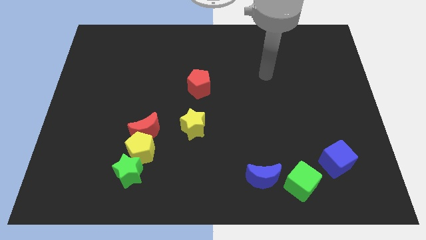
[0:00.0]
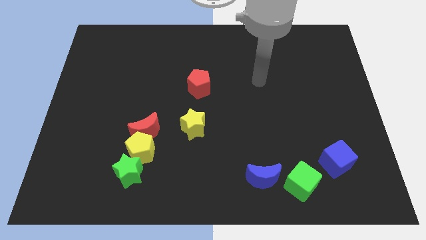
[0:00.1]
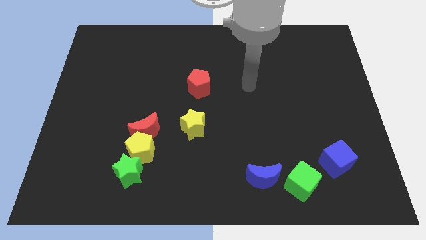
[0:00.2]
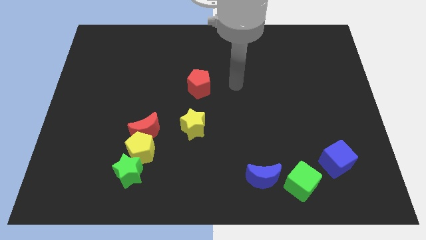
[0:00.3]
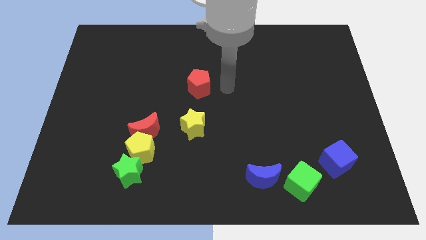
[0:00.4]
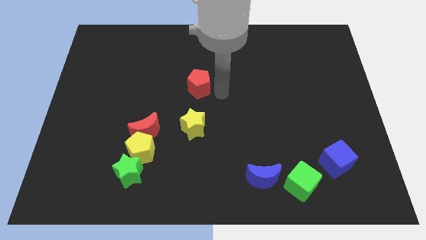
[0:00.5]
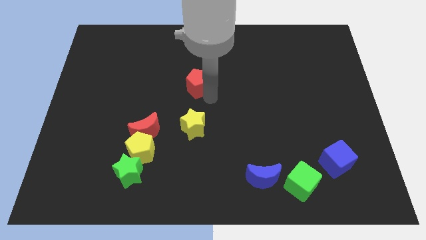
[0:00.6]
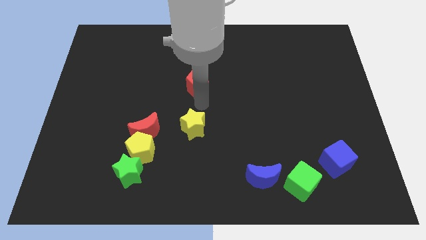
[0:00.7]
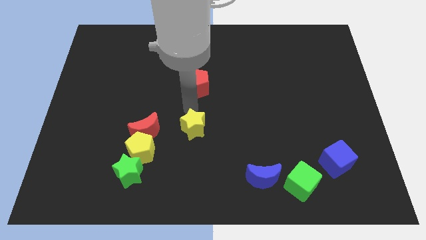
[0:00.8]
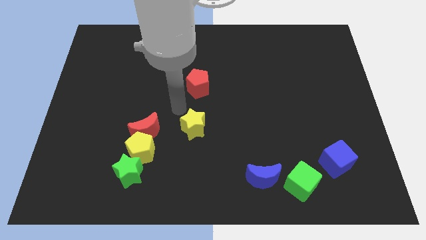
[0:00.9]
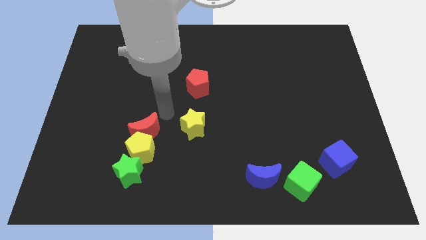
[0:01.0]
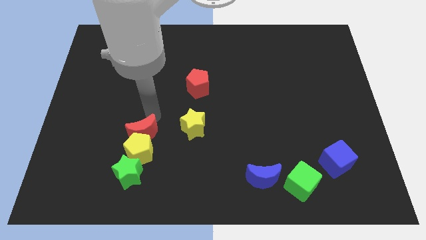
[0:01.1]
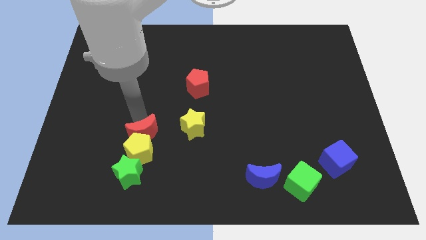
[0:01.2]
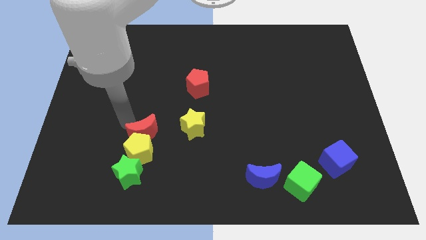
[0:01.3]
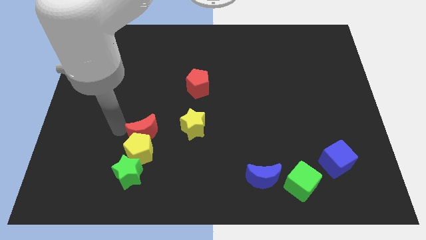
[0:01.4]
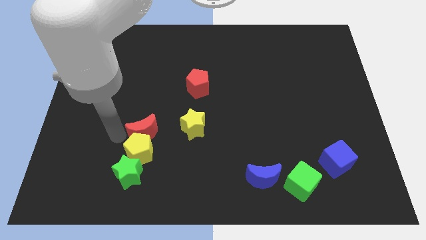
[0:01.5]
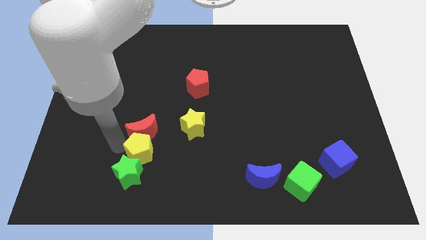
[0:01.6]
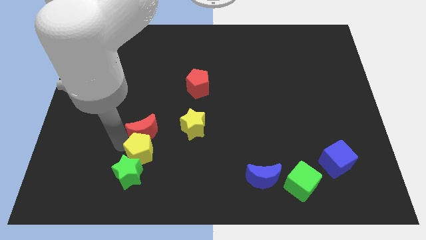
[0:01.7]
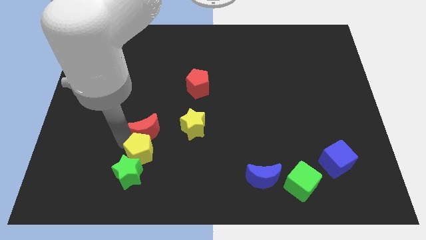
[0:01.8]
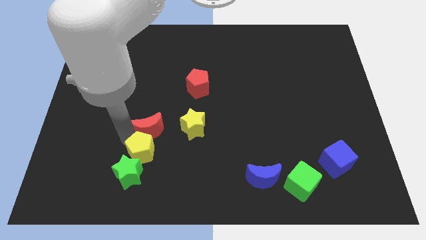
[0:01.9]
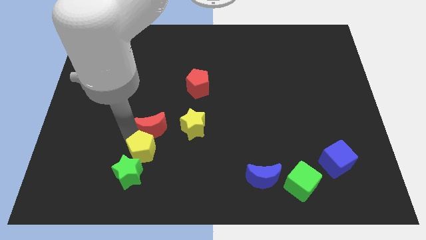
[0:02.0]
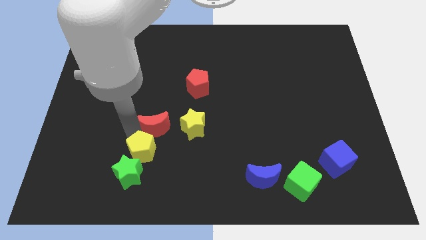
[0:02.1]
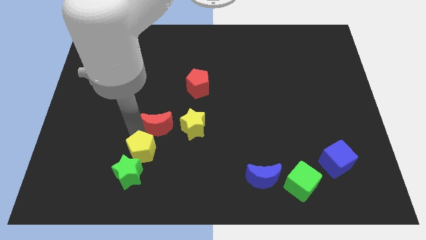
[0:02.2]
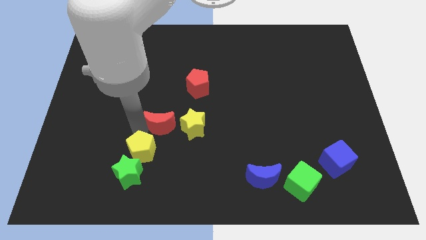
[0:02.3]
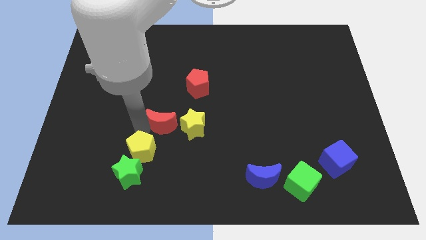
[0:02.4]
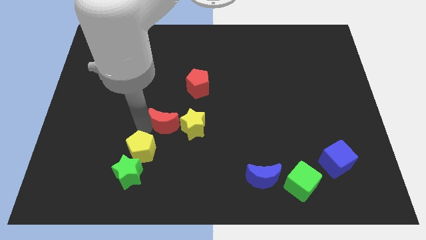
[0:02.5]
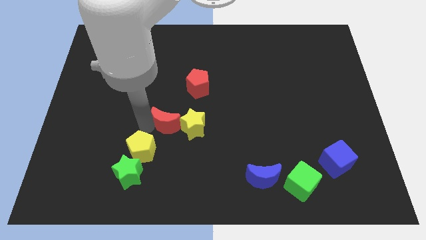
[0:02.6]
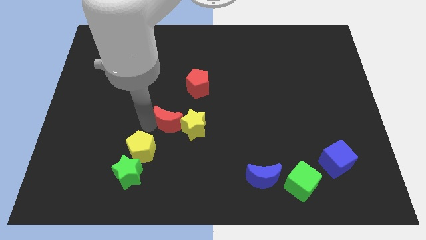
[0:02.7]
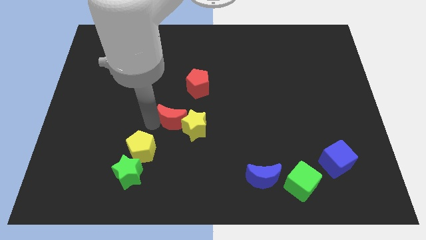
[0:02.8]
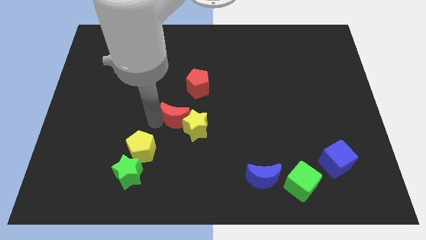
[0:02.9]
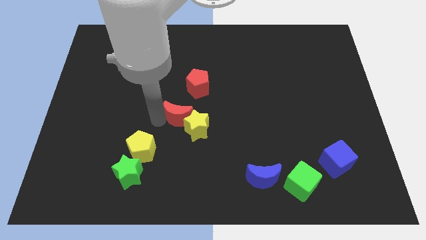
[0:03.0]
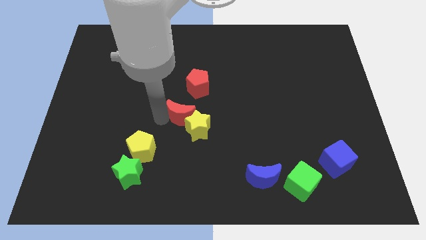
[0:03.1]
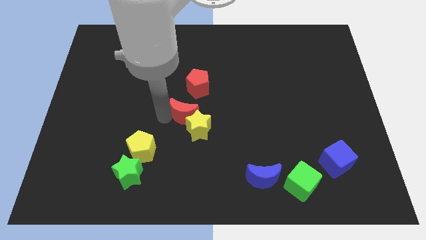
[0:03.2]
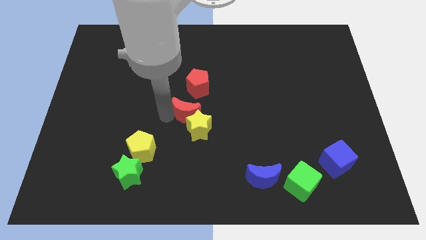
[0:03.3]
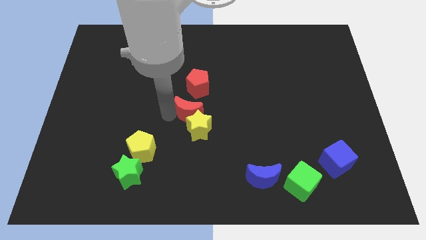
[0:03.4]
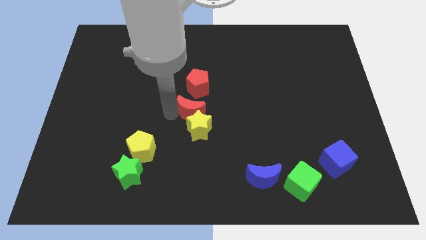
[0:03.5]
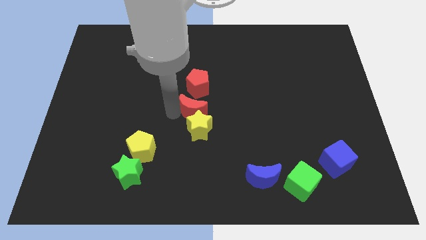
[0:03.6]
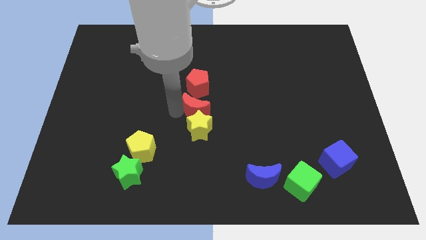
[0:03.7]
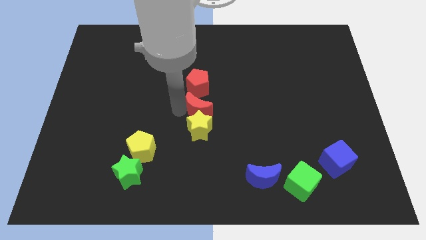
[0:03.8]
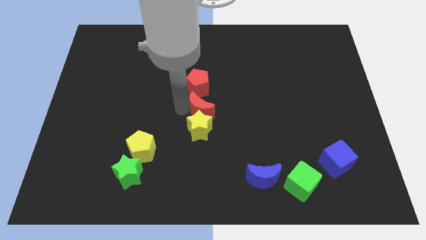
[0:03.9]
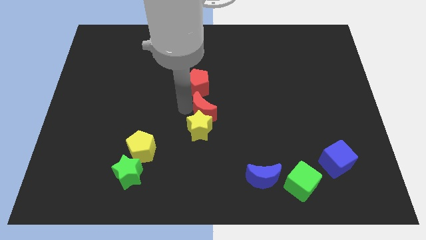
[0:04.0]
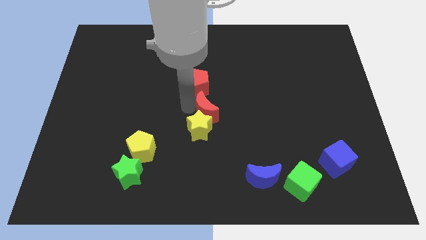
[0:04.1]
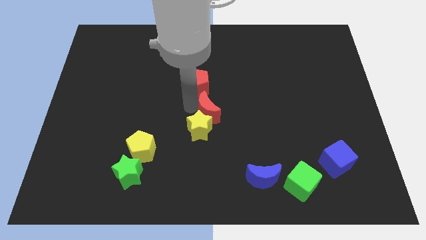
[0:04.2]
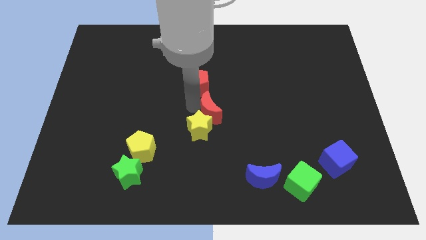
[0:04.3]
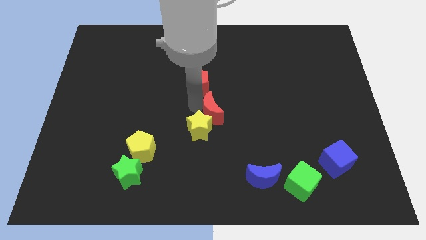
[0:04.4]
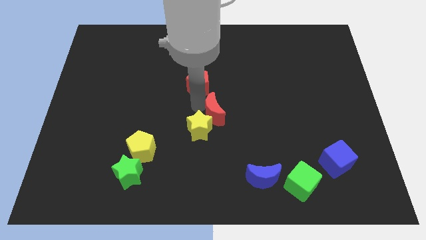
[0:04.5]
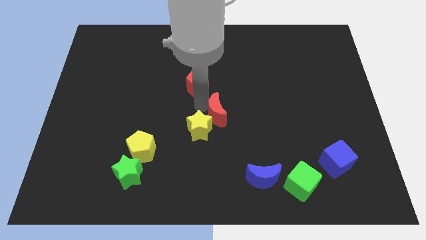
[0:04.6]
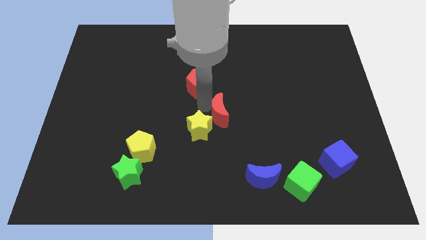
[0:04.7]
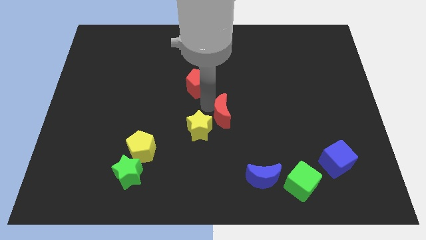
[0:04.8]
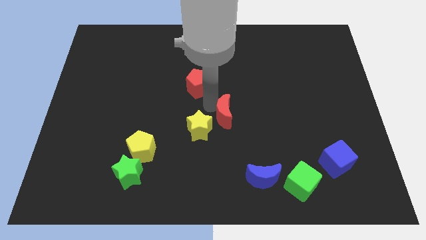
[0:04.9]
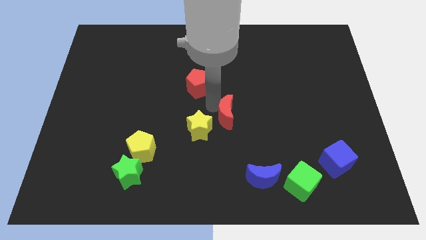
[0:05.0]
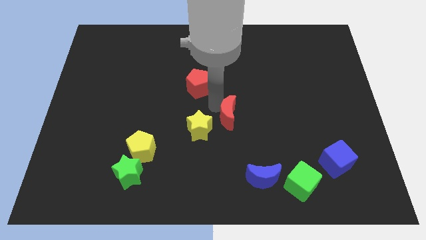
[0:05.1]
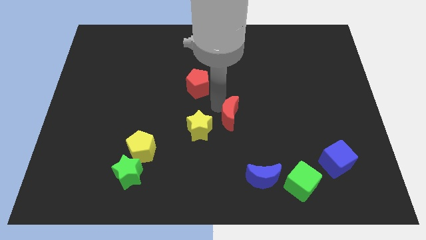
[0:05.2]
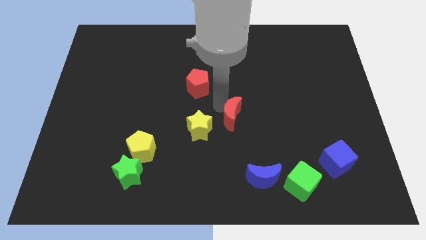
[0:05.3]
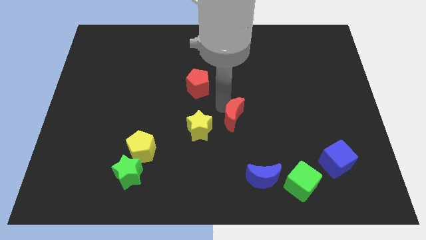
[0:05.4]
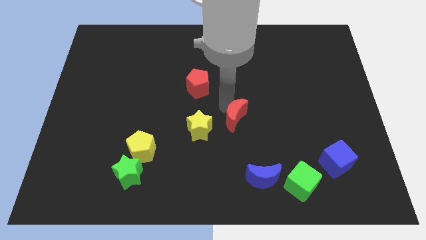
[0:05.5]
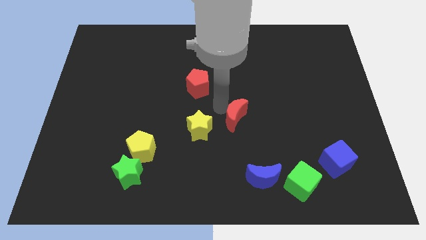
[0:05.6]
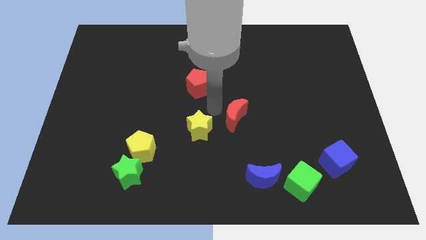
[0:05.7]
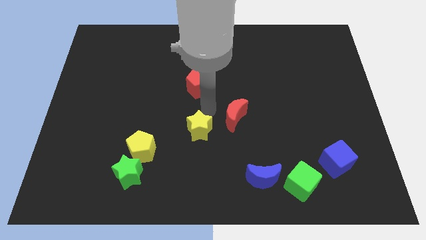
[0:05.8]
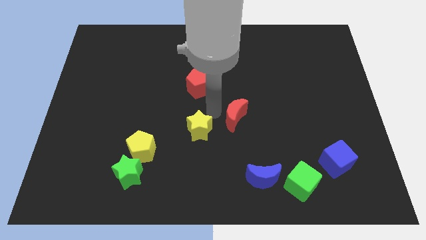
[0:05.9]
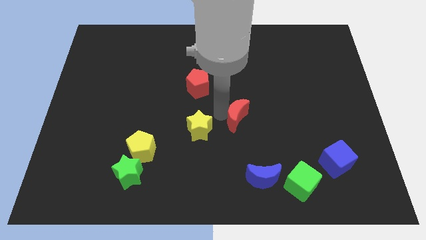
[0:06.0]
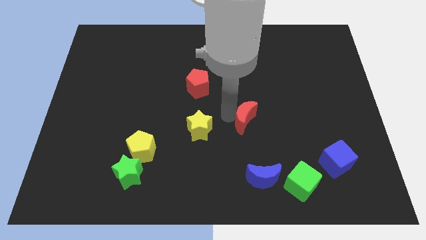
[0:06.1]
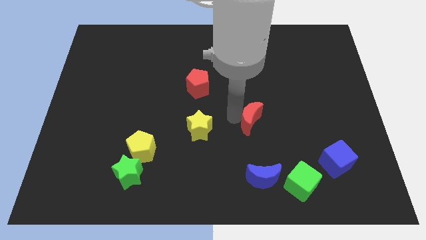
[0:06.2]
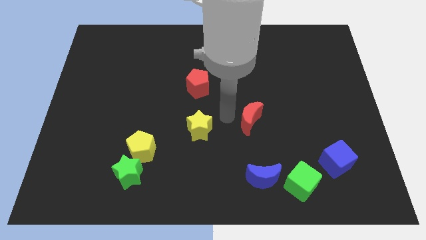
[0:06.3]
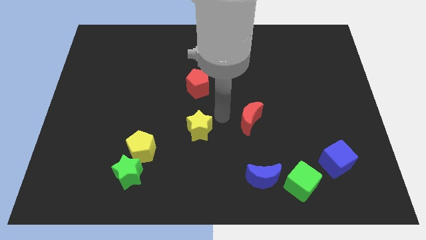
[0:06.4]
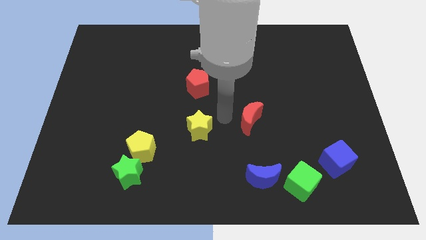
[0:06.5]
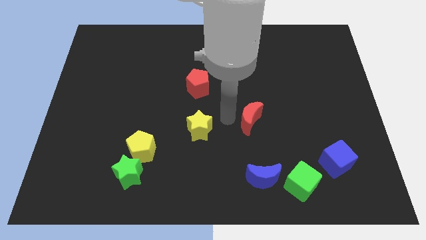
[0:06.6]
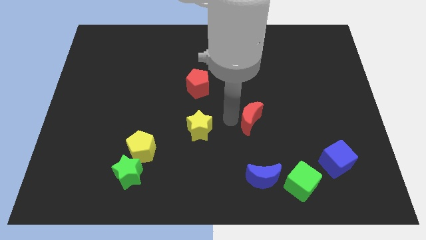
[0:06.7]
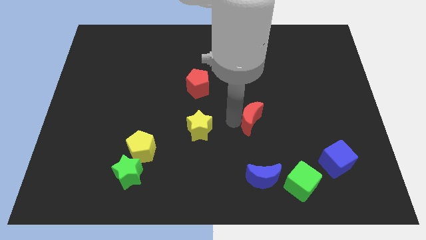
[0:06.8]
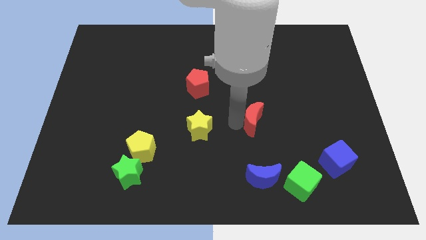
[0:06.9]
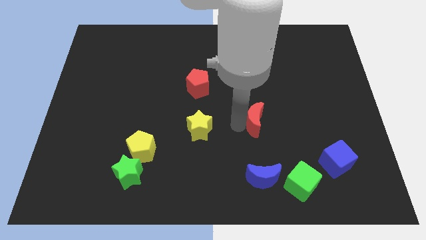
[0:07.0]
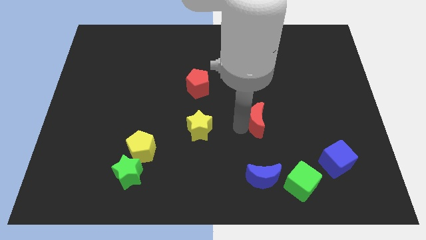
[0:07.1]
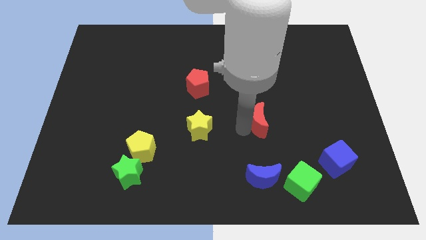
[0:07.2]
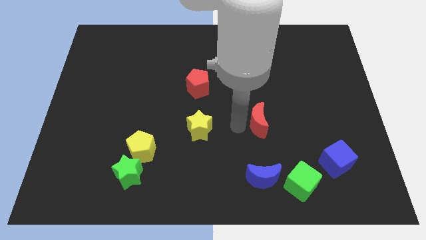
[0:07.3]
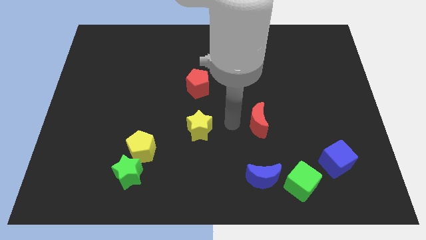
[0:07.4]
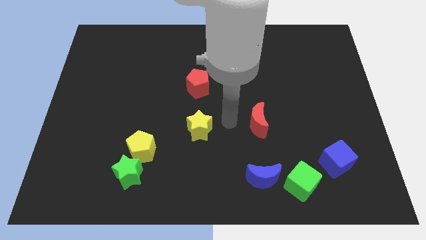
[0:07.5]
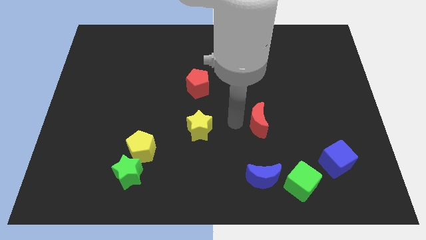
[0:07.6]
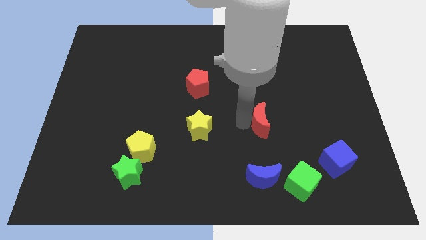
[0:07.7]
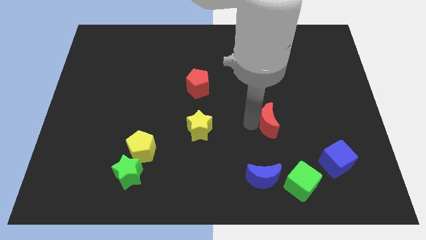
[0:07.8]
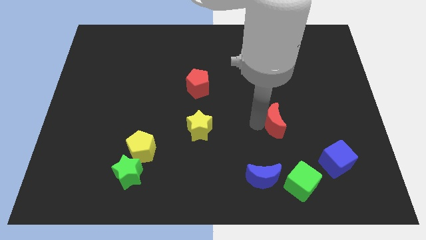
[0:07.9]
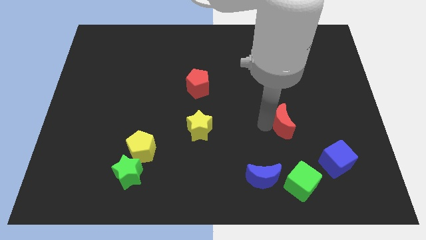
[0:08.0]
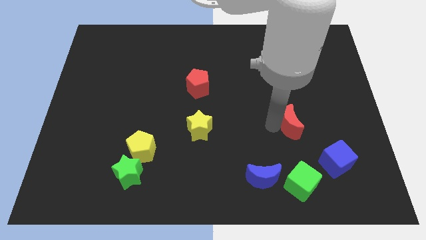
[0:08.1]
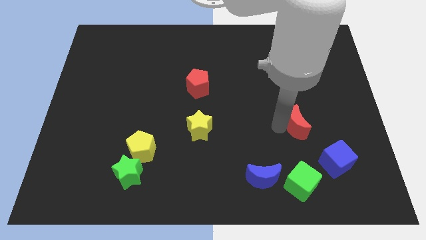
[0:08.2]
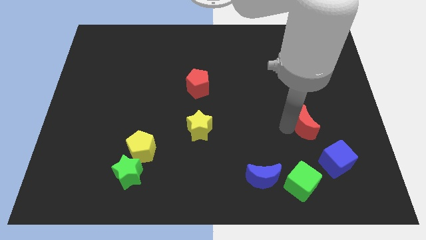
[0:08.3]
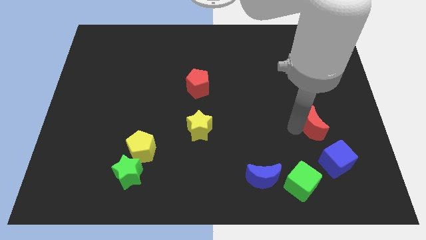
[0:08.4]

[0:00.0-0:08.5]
push the red moon to the top of the blue cube
